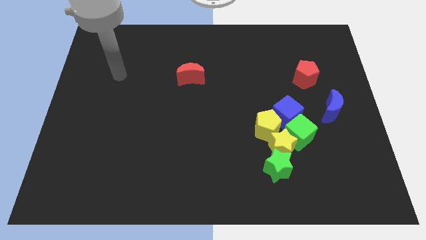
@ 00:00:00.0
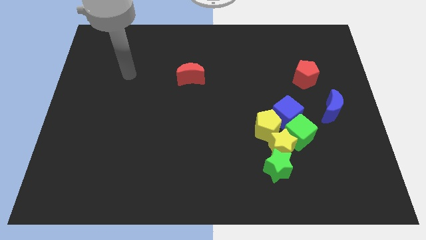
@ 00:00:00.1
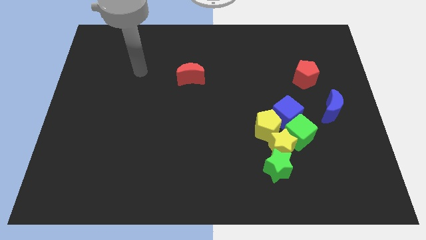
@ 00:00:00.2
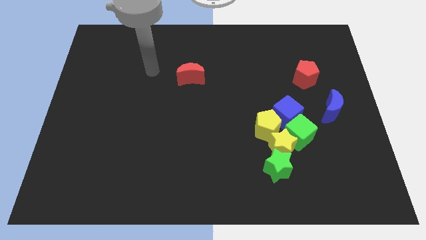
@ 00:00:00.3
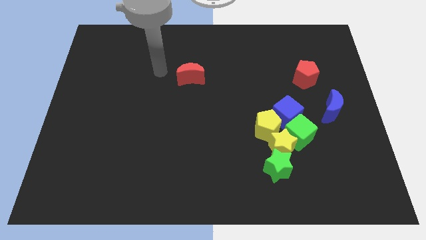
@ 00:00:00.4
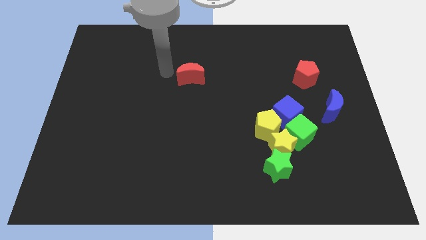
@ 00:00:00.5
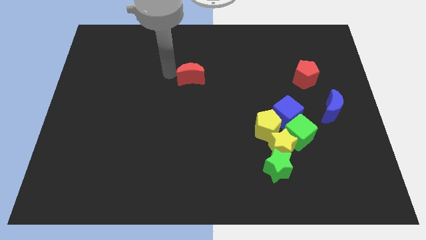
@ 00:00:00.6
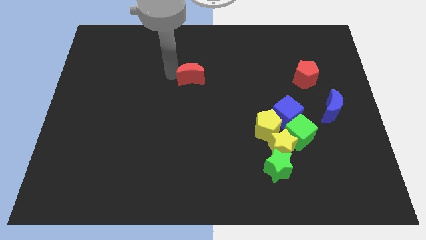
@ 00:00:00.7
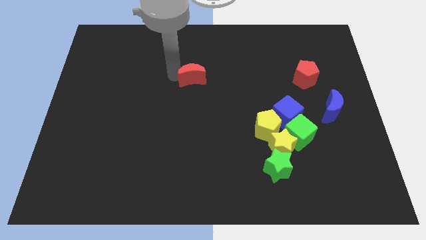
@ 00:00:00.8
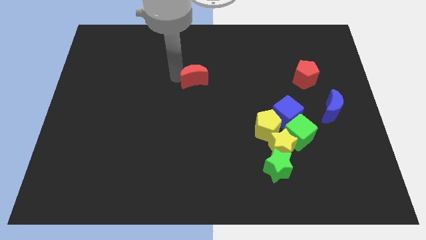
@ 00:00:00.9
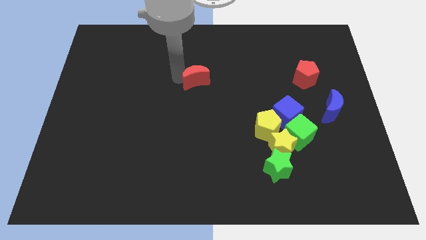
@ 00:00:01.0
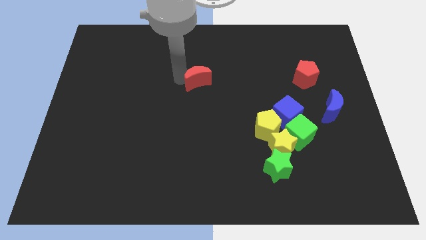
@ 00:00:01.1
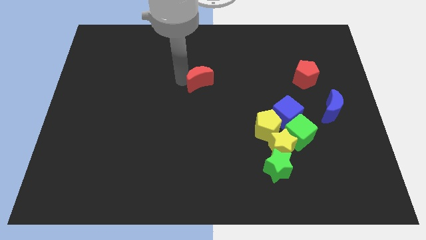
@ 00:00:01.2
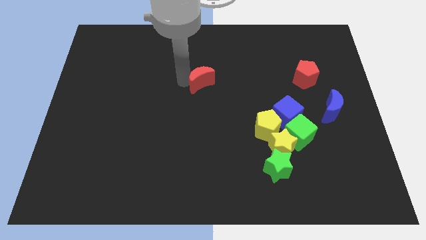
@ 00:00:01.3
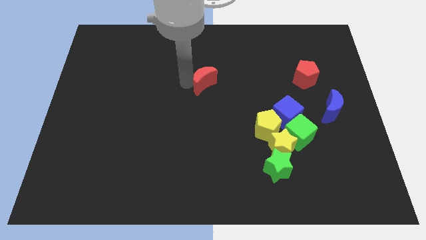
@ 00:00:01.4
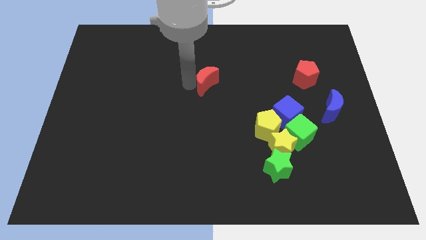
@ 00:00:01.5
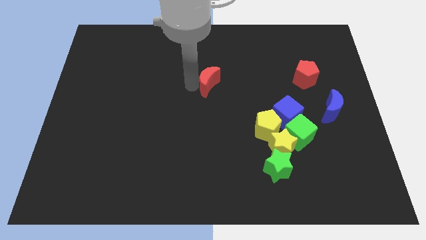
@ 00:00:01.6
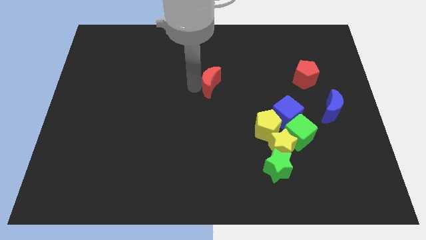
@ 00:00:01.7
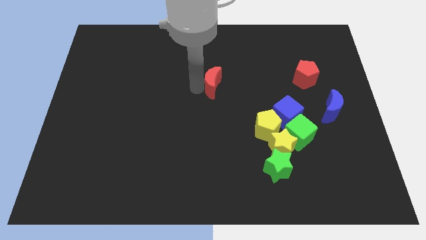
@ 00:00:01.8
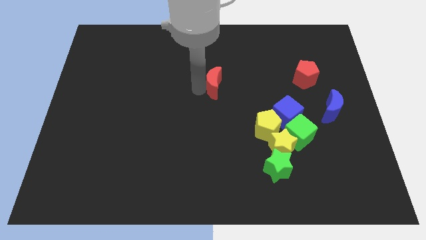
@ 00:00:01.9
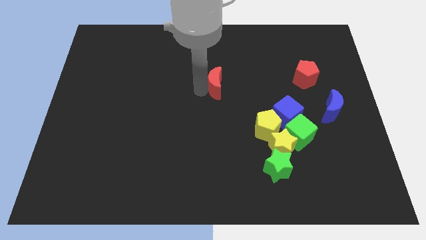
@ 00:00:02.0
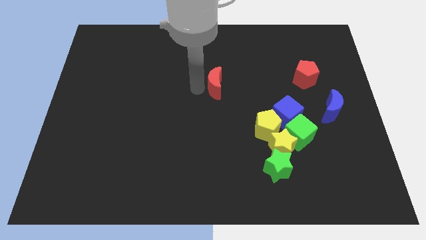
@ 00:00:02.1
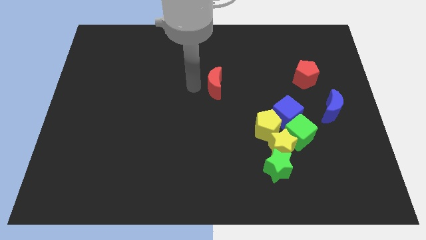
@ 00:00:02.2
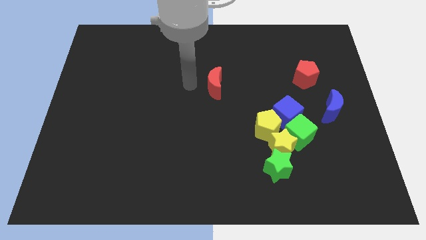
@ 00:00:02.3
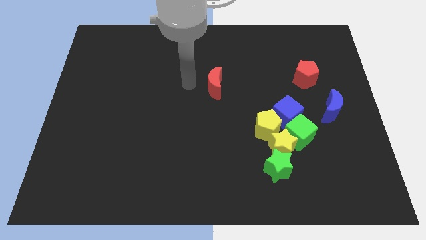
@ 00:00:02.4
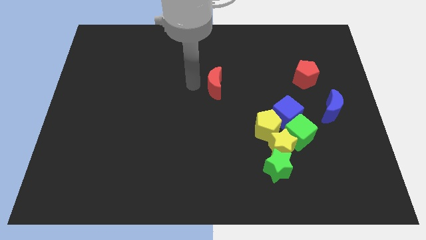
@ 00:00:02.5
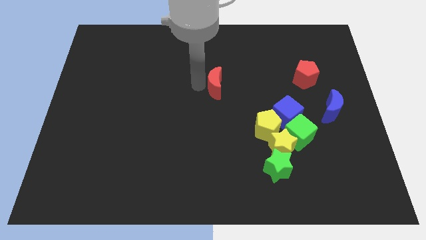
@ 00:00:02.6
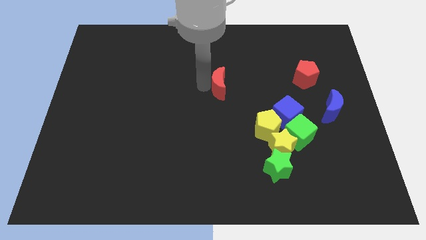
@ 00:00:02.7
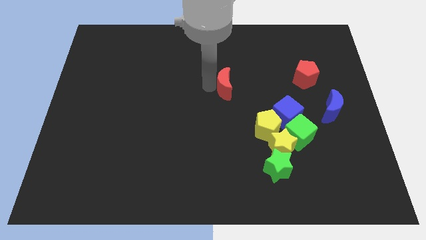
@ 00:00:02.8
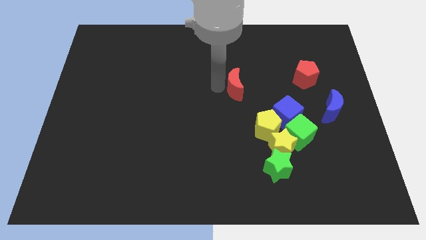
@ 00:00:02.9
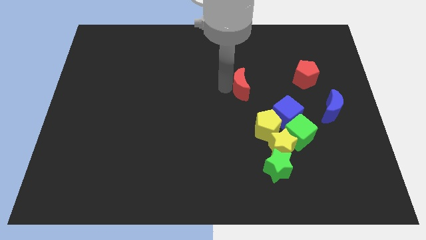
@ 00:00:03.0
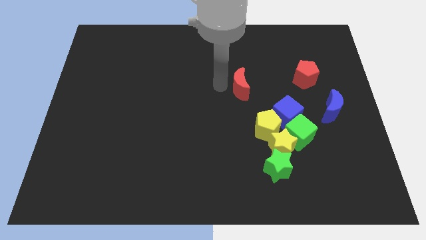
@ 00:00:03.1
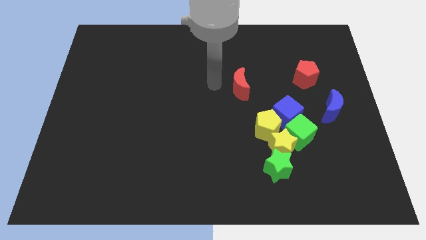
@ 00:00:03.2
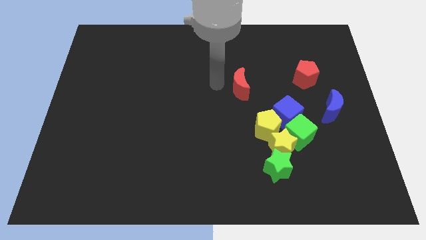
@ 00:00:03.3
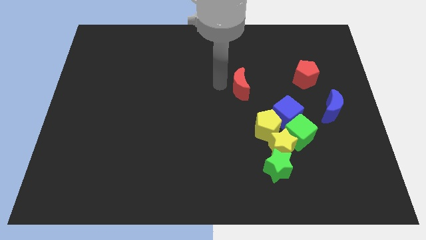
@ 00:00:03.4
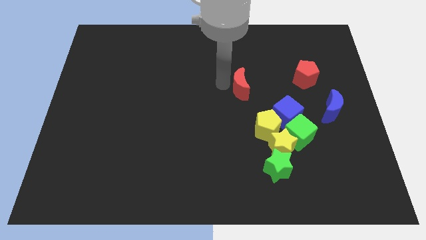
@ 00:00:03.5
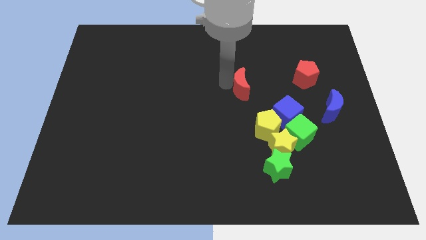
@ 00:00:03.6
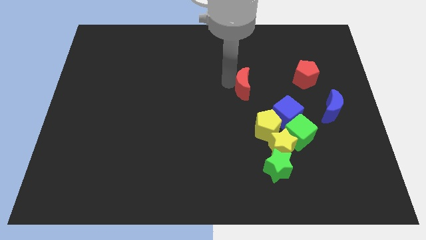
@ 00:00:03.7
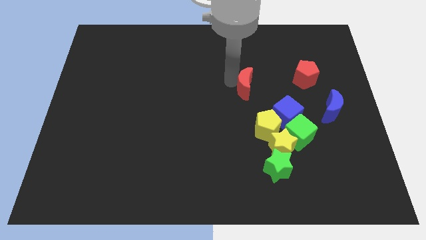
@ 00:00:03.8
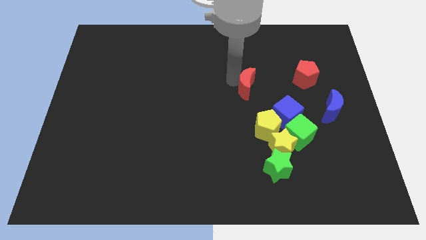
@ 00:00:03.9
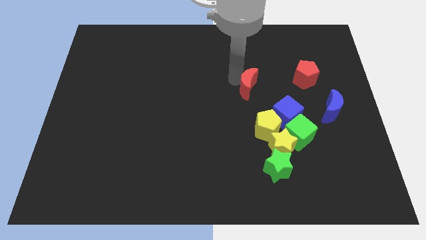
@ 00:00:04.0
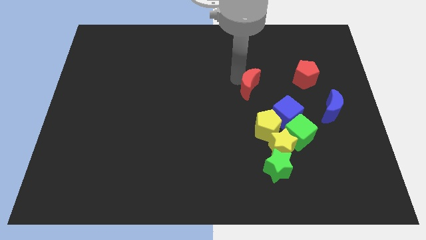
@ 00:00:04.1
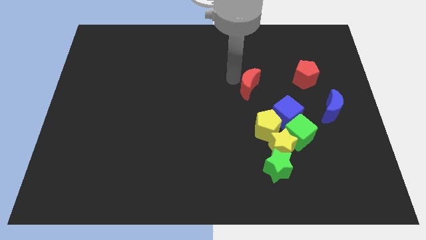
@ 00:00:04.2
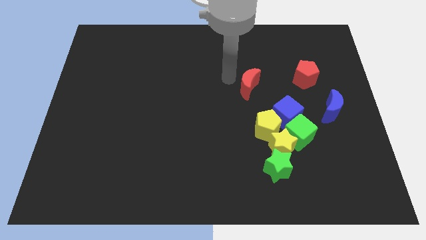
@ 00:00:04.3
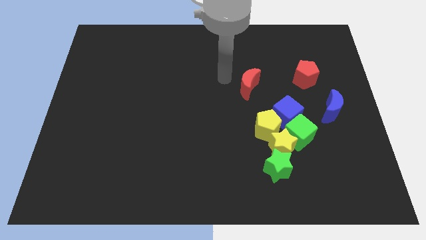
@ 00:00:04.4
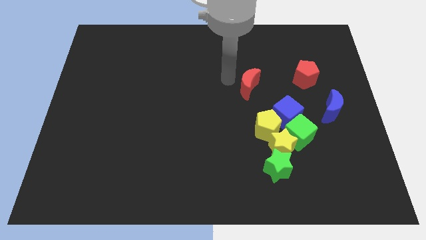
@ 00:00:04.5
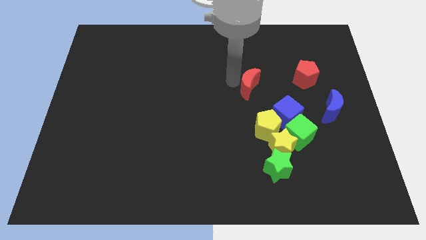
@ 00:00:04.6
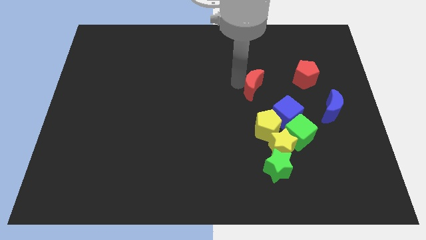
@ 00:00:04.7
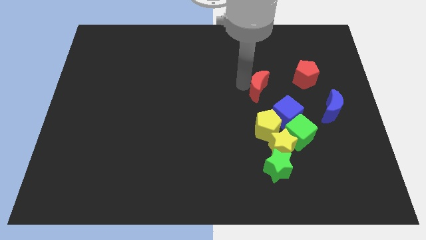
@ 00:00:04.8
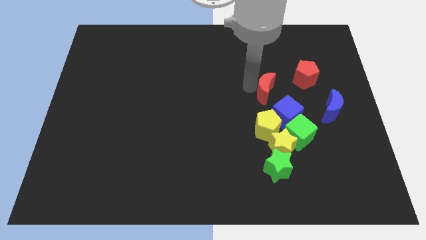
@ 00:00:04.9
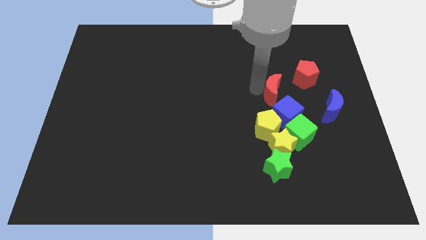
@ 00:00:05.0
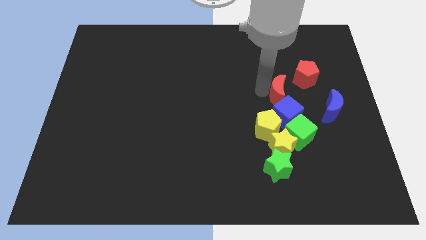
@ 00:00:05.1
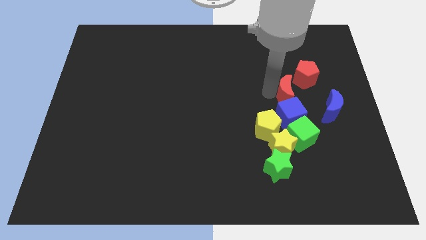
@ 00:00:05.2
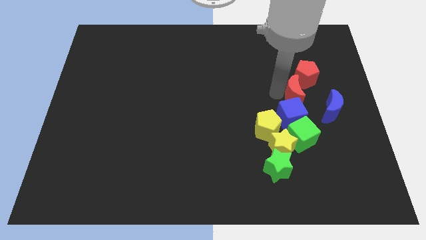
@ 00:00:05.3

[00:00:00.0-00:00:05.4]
put the red moon to the top right of the blue cube

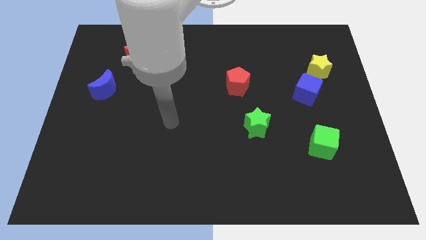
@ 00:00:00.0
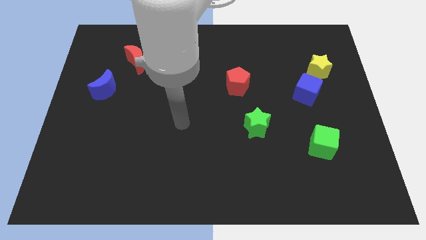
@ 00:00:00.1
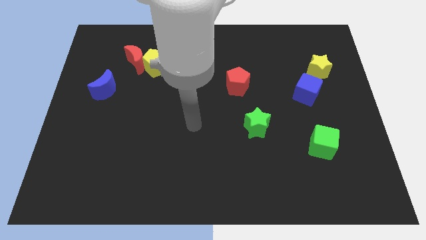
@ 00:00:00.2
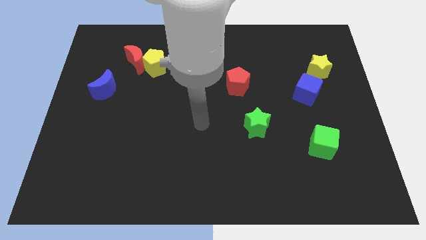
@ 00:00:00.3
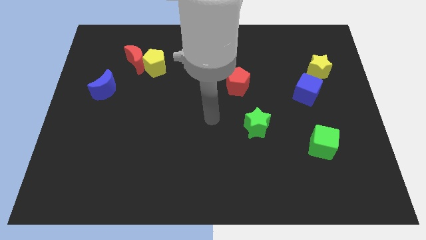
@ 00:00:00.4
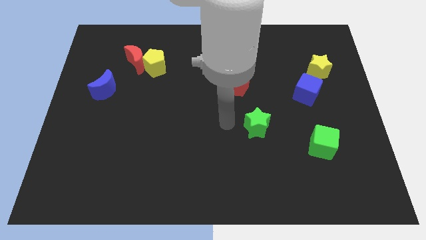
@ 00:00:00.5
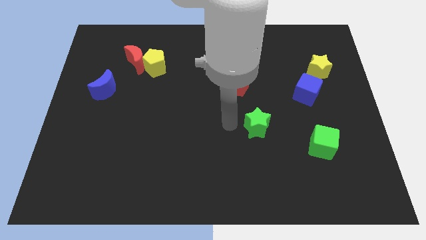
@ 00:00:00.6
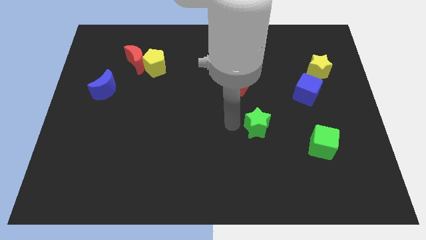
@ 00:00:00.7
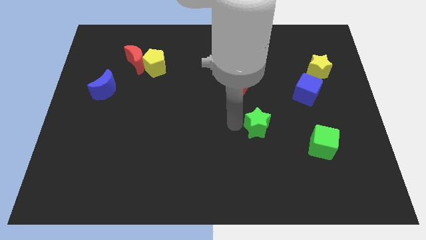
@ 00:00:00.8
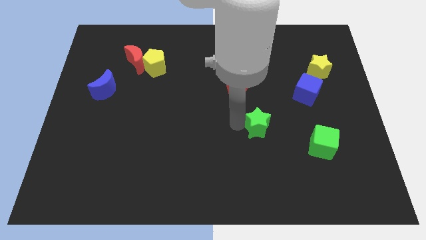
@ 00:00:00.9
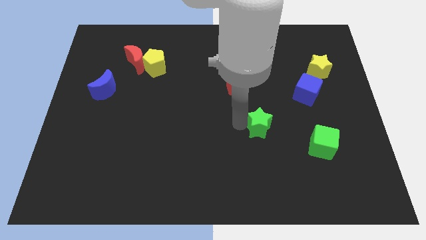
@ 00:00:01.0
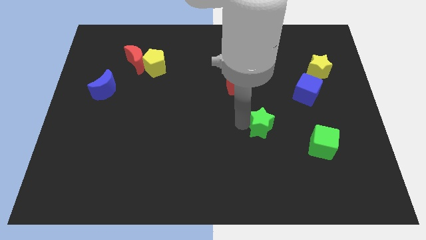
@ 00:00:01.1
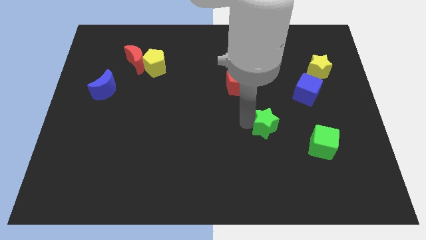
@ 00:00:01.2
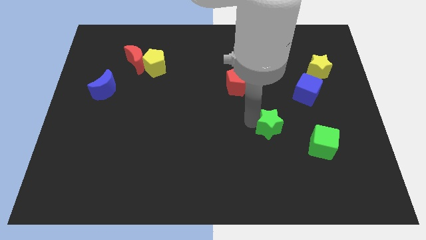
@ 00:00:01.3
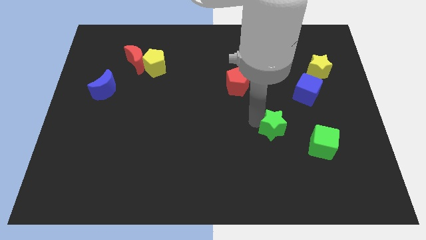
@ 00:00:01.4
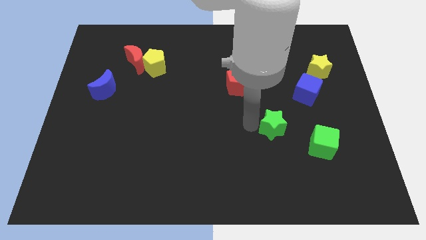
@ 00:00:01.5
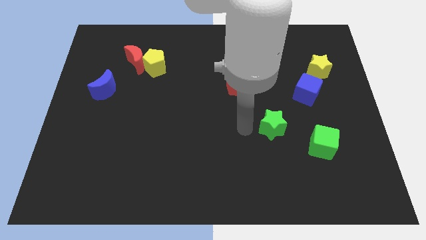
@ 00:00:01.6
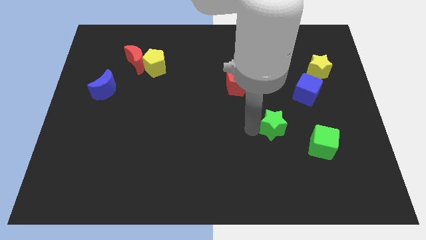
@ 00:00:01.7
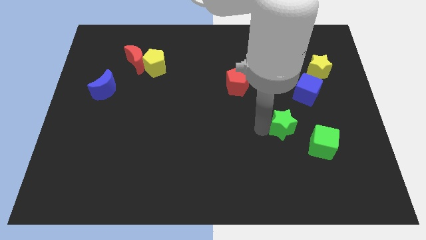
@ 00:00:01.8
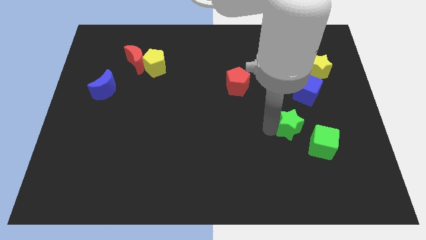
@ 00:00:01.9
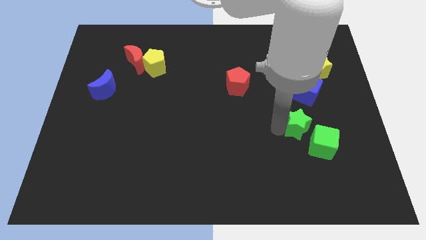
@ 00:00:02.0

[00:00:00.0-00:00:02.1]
put the green star below the blue cube

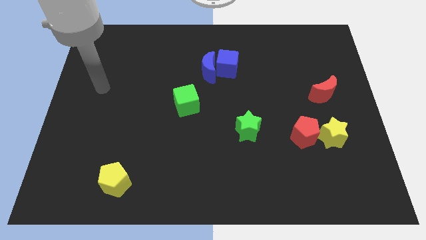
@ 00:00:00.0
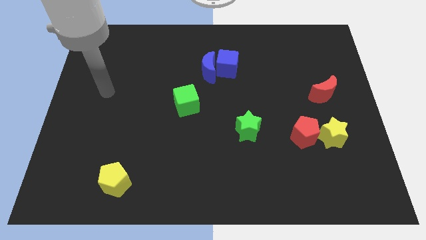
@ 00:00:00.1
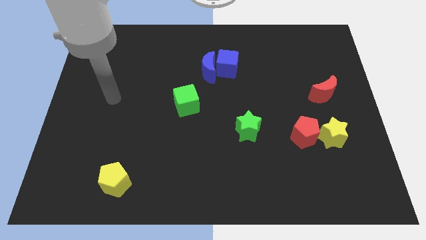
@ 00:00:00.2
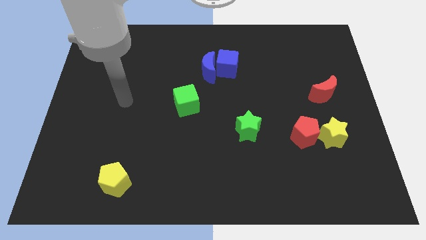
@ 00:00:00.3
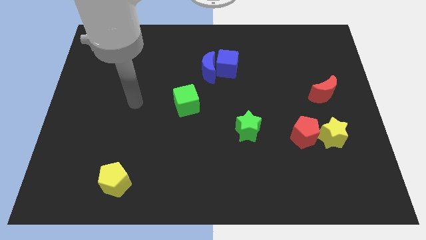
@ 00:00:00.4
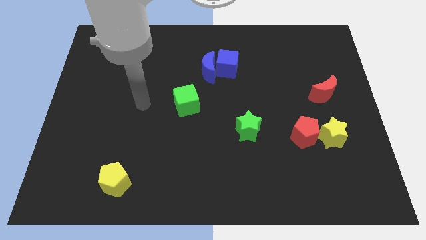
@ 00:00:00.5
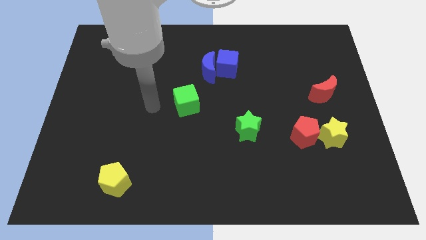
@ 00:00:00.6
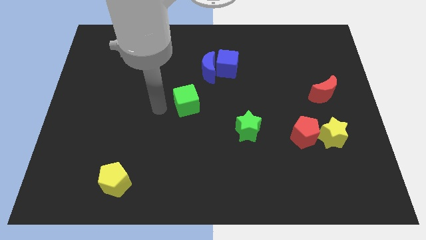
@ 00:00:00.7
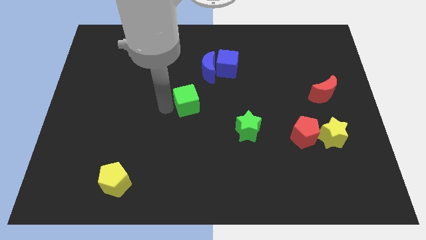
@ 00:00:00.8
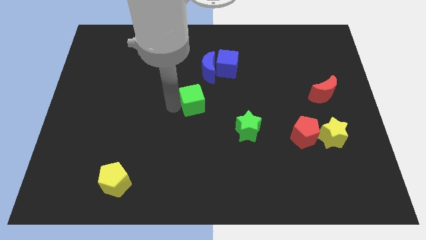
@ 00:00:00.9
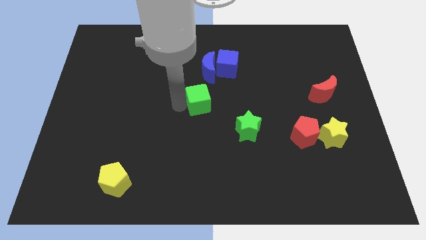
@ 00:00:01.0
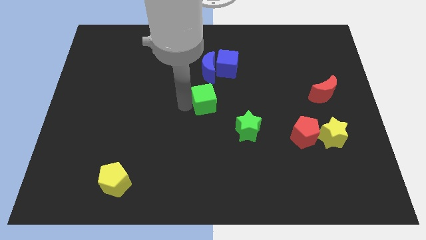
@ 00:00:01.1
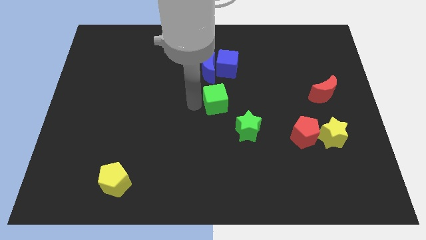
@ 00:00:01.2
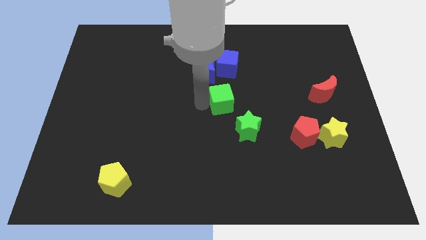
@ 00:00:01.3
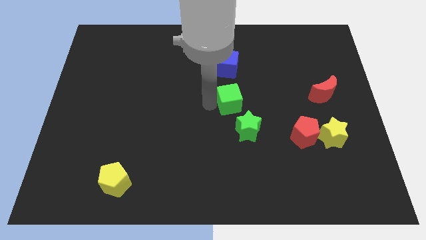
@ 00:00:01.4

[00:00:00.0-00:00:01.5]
push the green cube above the green star
